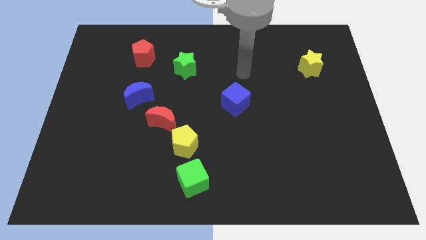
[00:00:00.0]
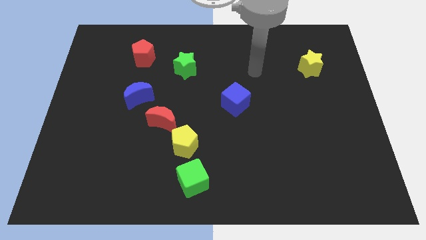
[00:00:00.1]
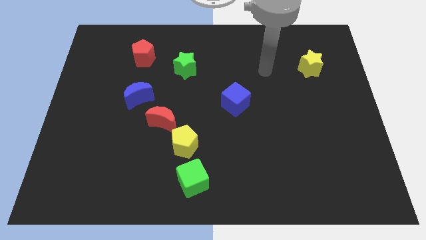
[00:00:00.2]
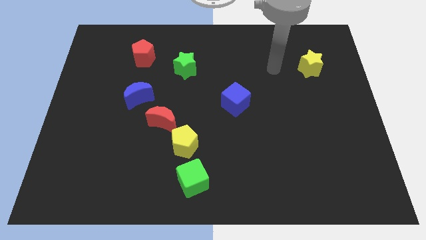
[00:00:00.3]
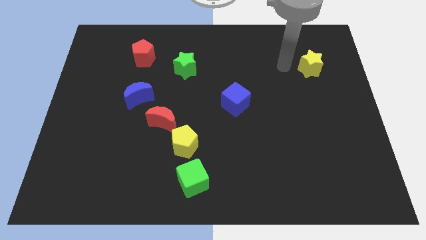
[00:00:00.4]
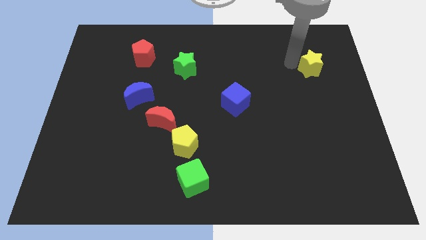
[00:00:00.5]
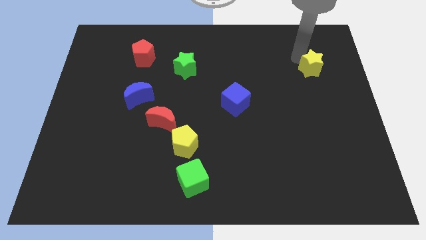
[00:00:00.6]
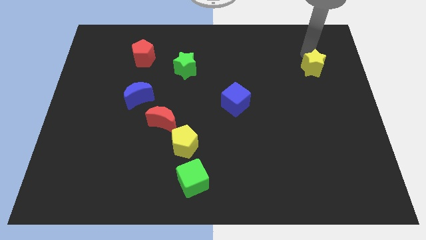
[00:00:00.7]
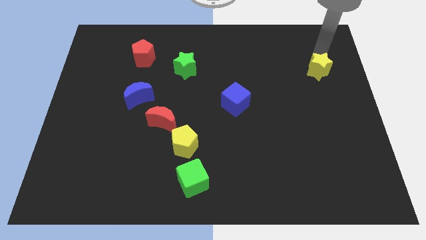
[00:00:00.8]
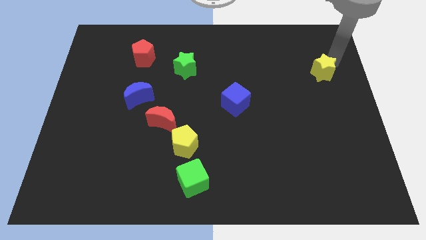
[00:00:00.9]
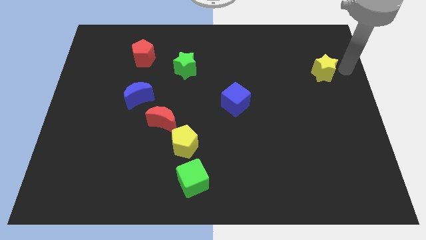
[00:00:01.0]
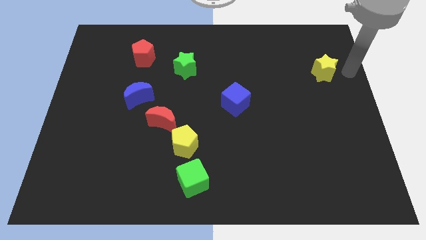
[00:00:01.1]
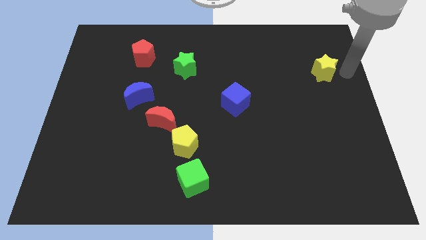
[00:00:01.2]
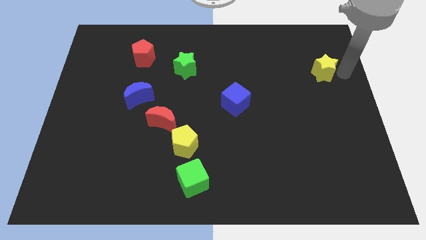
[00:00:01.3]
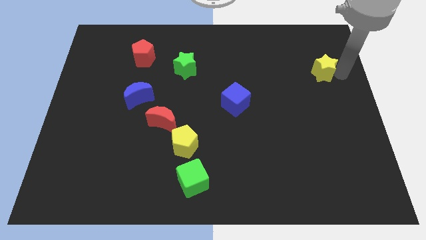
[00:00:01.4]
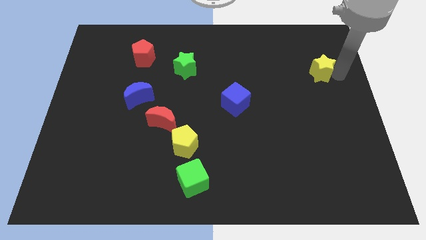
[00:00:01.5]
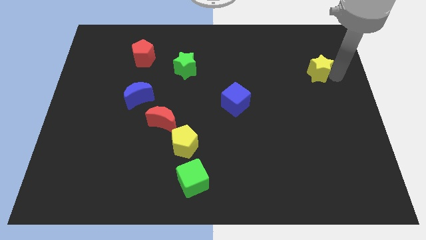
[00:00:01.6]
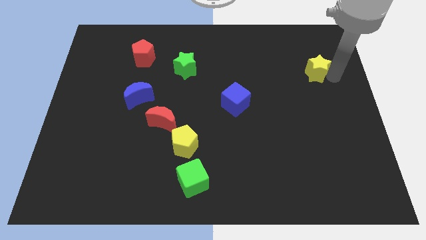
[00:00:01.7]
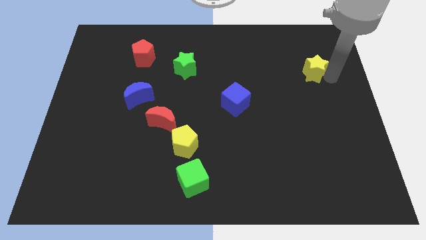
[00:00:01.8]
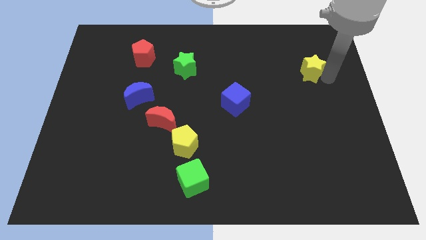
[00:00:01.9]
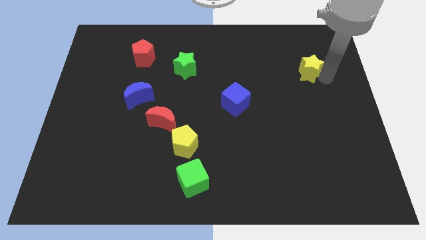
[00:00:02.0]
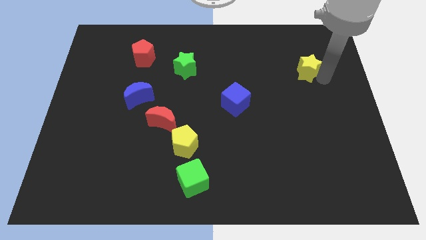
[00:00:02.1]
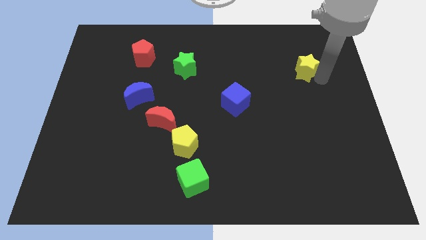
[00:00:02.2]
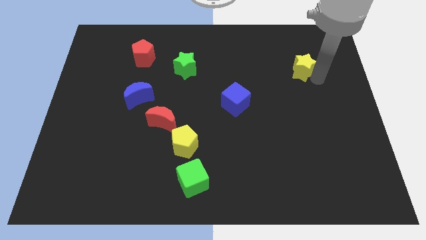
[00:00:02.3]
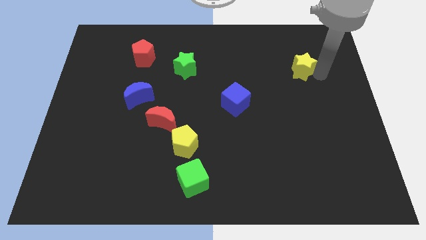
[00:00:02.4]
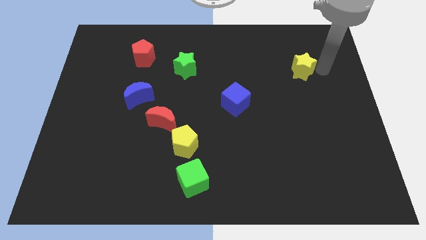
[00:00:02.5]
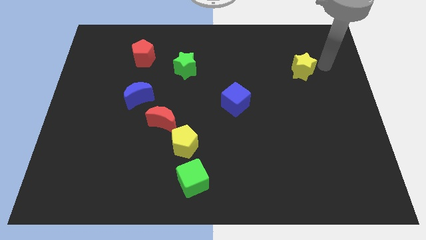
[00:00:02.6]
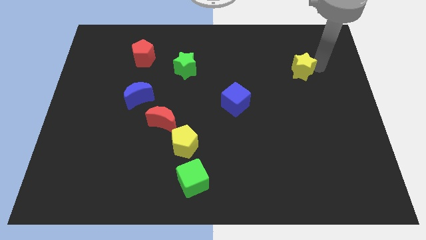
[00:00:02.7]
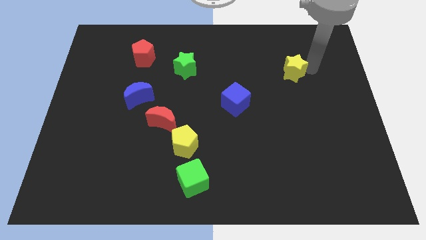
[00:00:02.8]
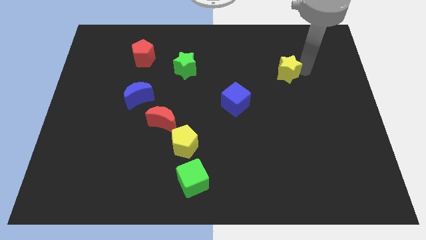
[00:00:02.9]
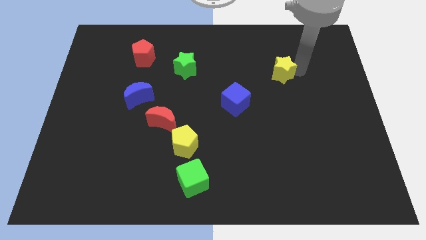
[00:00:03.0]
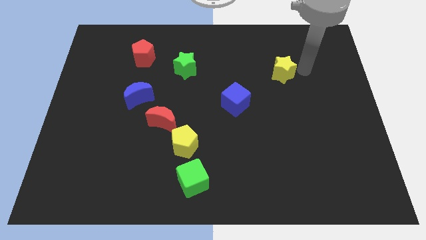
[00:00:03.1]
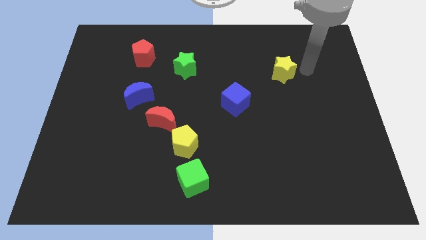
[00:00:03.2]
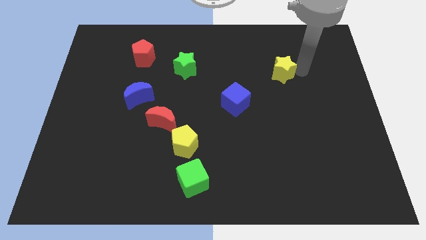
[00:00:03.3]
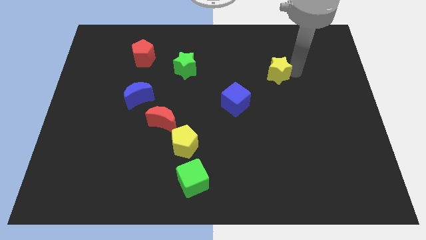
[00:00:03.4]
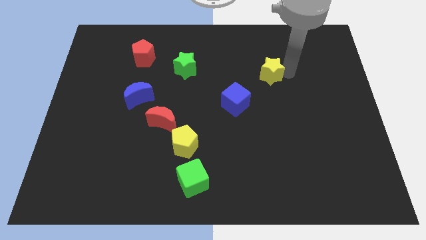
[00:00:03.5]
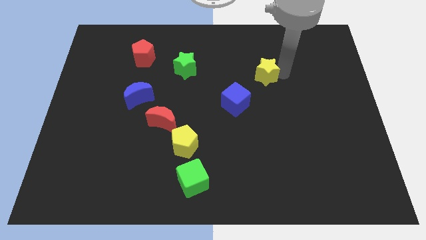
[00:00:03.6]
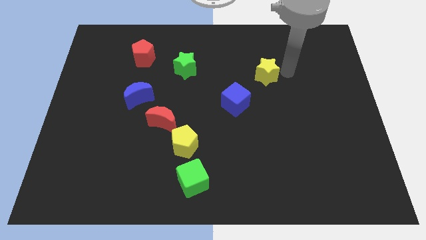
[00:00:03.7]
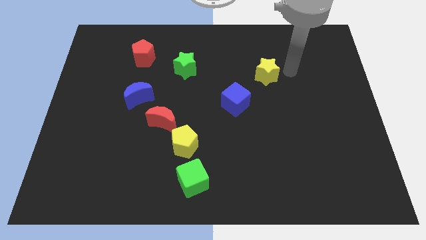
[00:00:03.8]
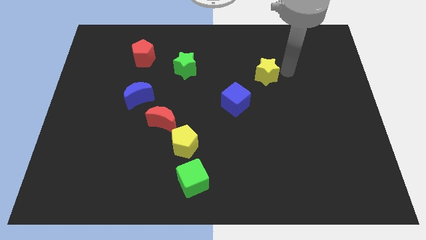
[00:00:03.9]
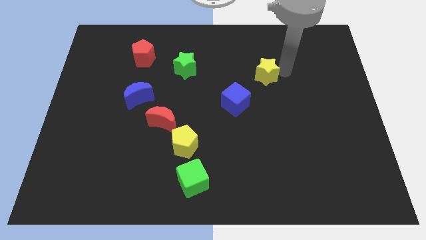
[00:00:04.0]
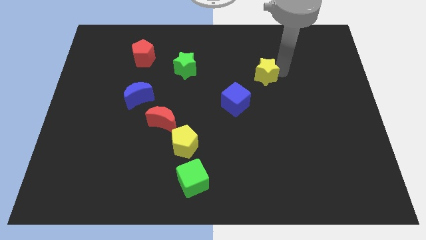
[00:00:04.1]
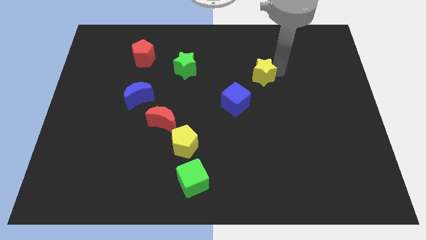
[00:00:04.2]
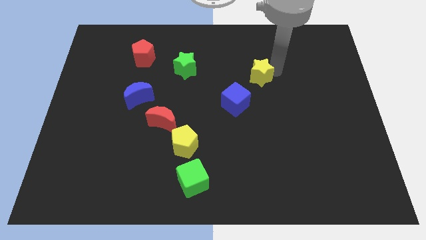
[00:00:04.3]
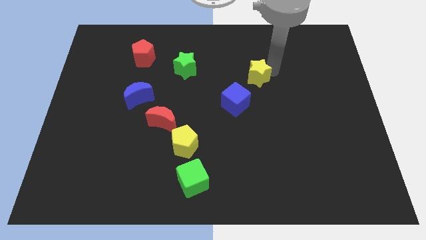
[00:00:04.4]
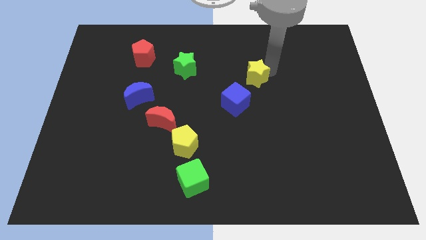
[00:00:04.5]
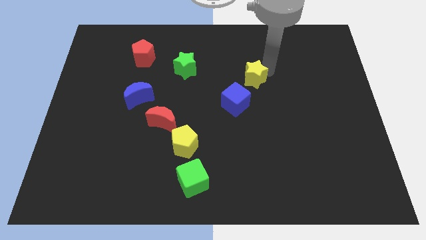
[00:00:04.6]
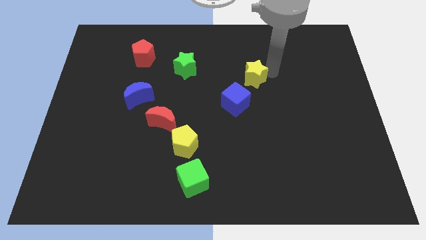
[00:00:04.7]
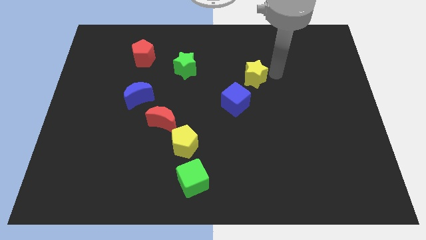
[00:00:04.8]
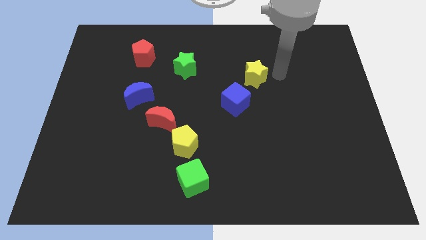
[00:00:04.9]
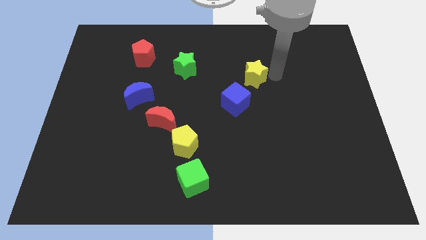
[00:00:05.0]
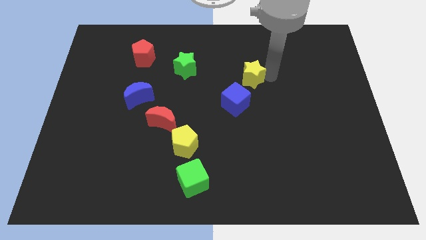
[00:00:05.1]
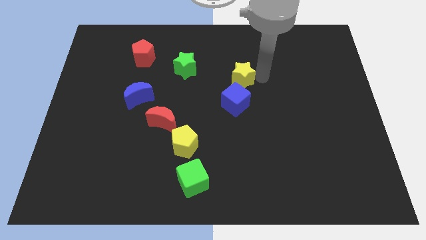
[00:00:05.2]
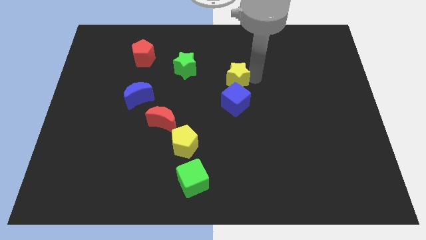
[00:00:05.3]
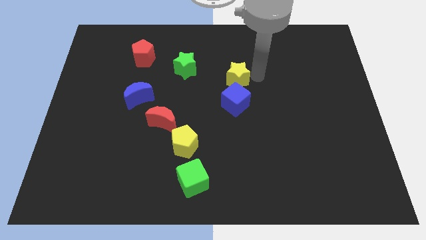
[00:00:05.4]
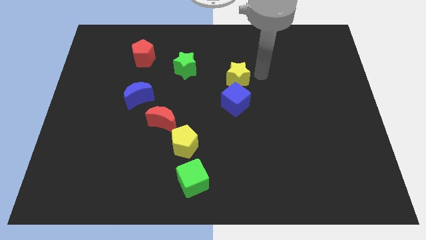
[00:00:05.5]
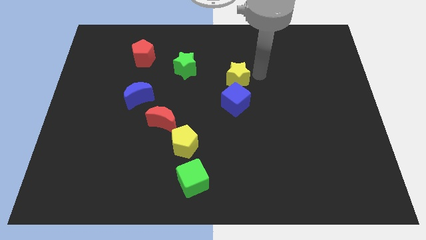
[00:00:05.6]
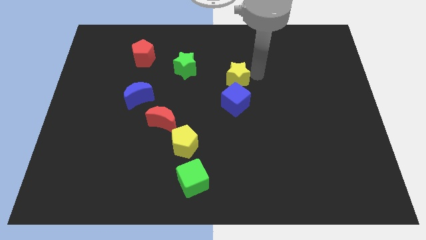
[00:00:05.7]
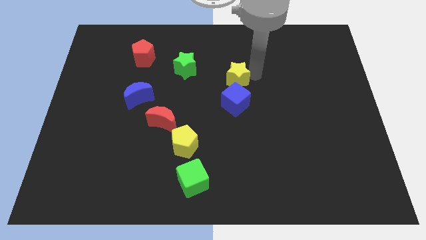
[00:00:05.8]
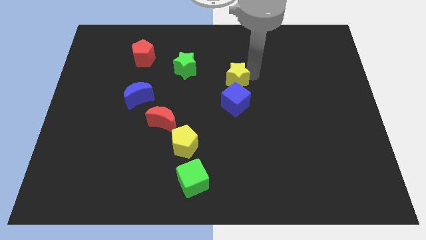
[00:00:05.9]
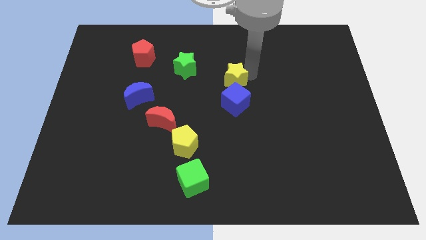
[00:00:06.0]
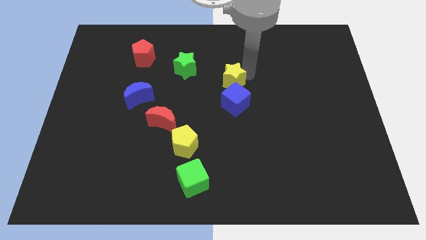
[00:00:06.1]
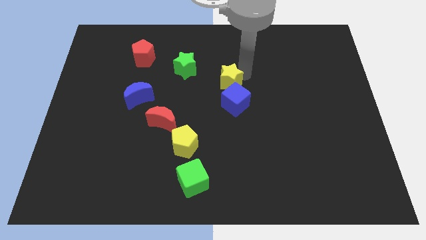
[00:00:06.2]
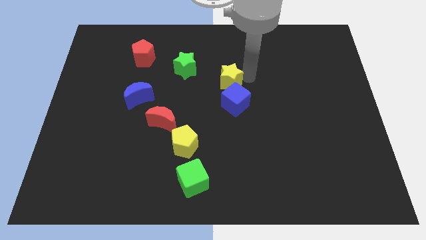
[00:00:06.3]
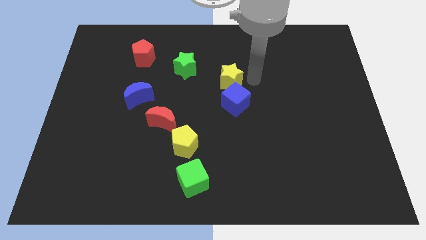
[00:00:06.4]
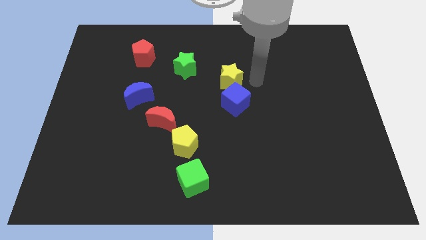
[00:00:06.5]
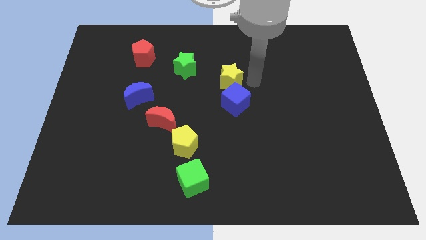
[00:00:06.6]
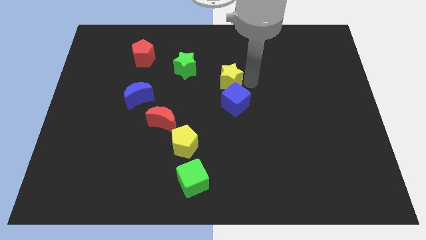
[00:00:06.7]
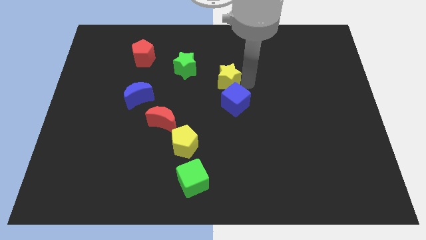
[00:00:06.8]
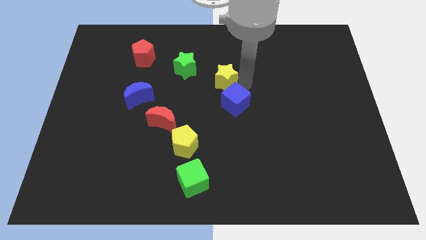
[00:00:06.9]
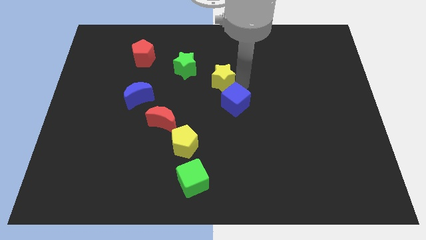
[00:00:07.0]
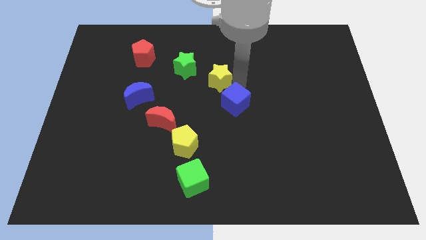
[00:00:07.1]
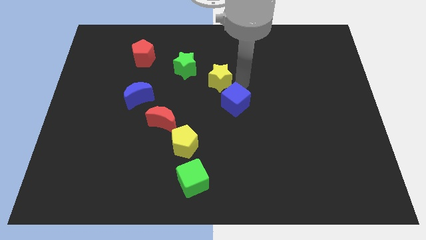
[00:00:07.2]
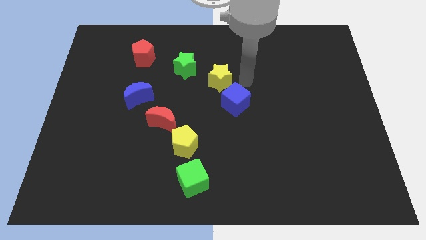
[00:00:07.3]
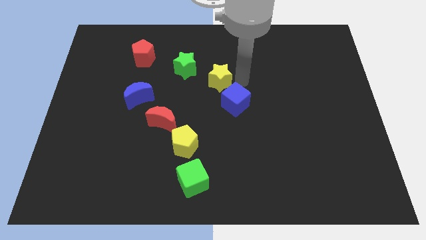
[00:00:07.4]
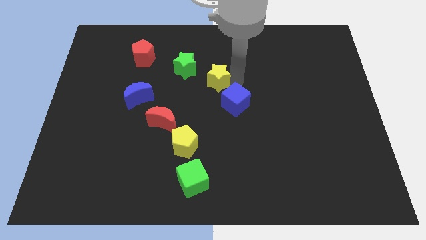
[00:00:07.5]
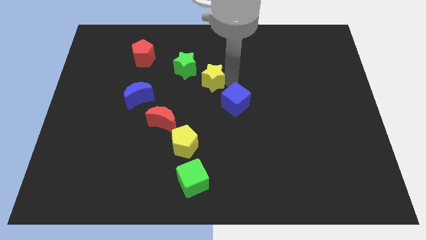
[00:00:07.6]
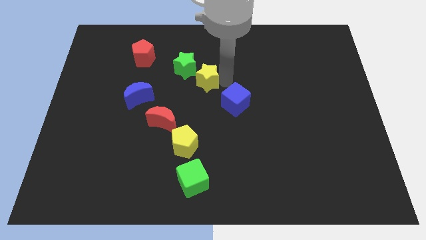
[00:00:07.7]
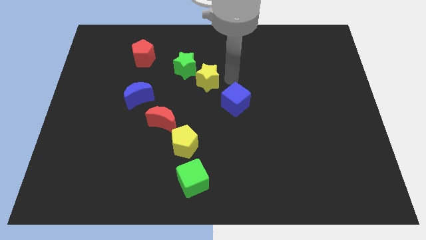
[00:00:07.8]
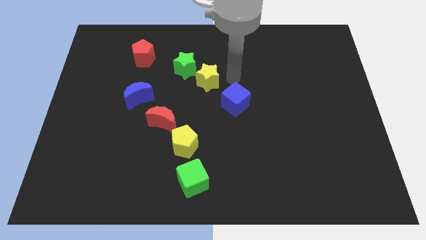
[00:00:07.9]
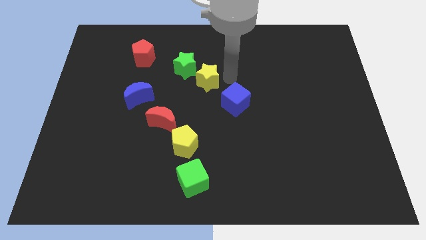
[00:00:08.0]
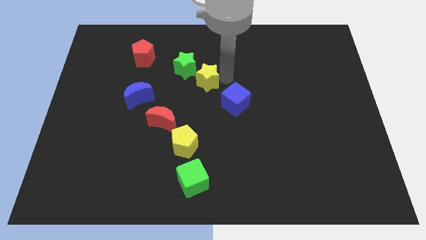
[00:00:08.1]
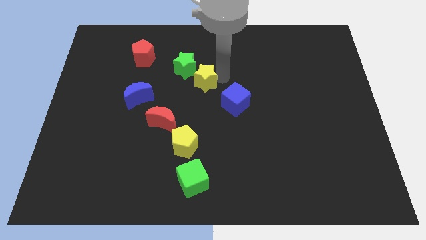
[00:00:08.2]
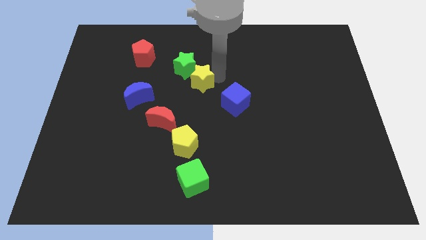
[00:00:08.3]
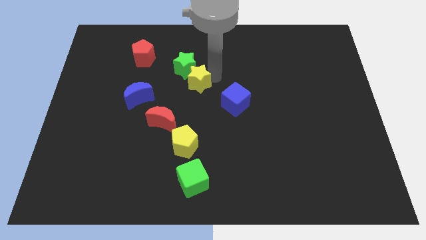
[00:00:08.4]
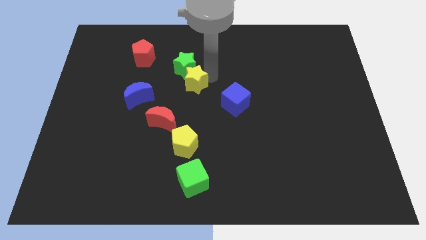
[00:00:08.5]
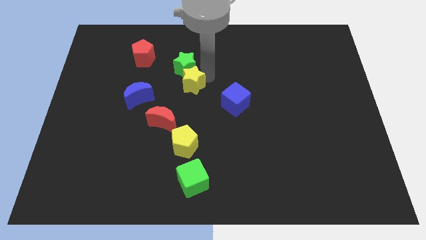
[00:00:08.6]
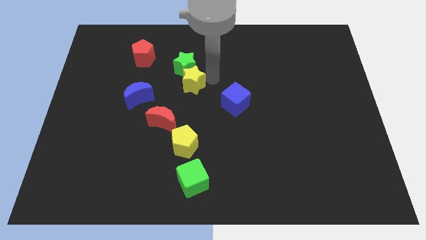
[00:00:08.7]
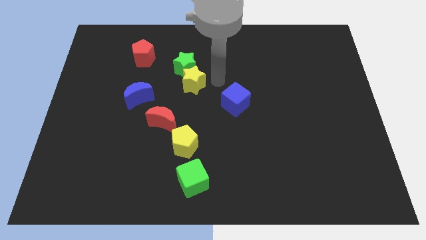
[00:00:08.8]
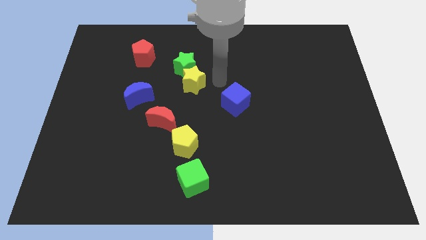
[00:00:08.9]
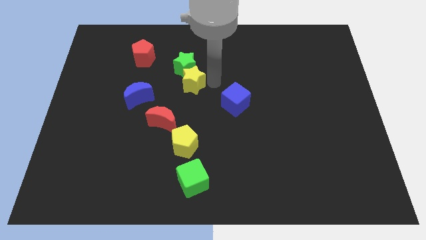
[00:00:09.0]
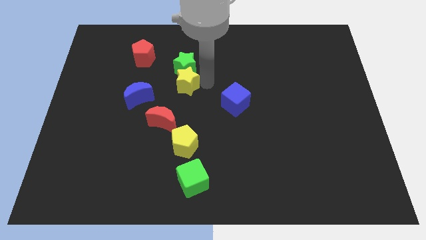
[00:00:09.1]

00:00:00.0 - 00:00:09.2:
put the yellow star to the top of the red moon
